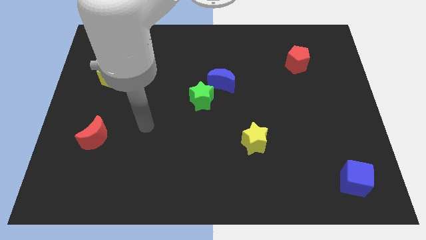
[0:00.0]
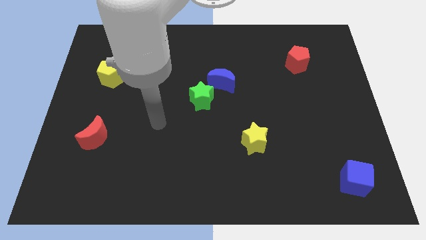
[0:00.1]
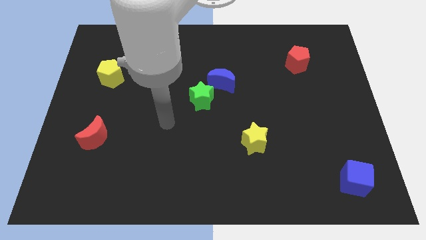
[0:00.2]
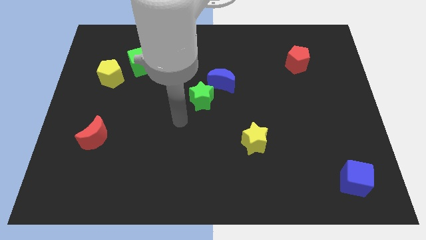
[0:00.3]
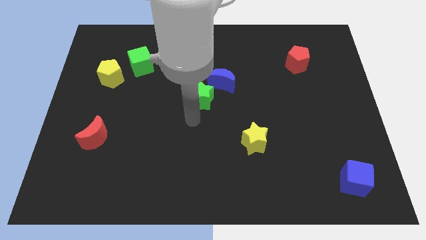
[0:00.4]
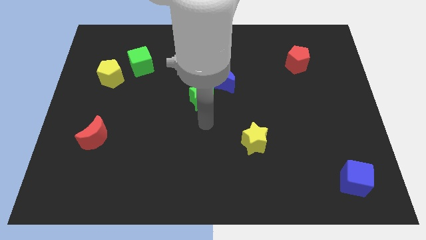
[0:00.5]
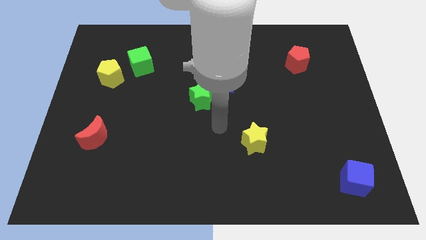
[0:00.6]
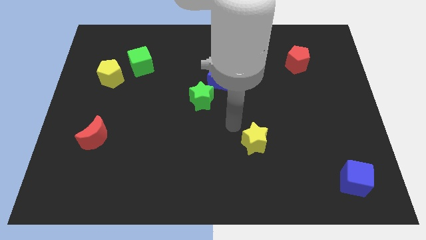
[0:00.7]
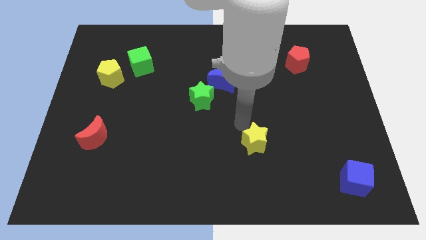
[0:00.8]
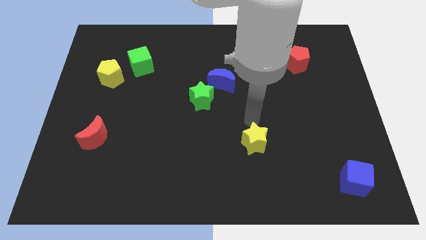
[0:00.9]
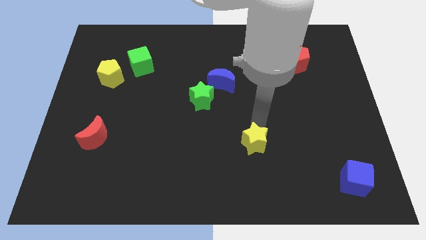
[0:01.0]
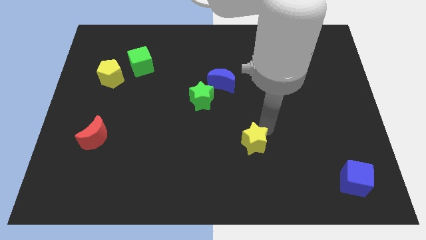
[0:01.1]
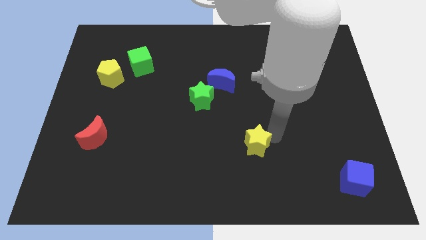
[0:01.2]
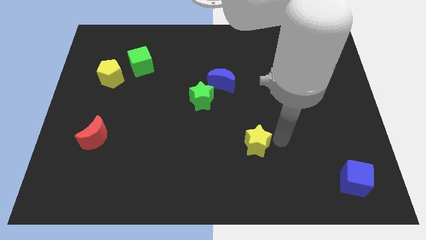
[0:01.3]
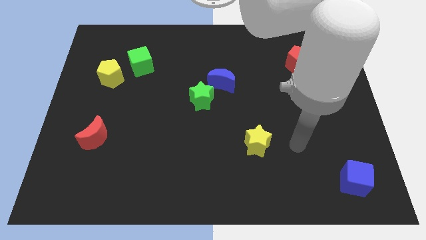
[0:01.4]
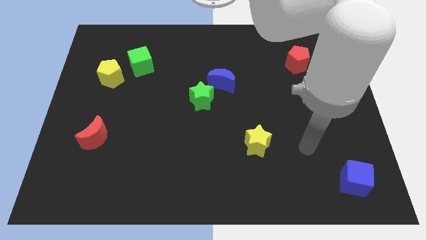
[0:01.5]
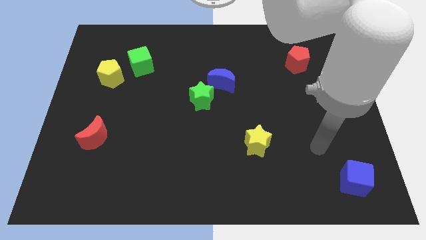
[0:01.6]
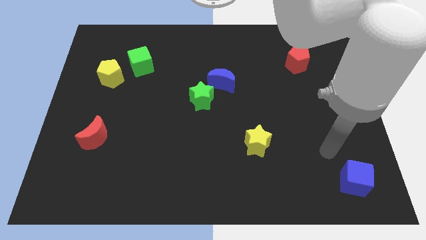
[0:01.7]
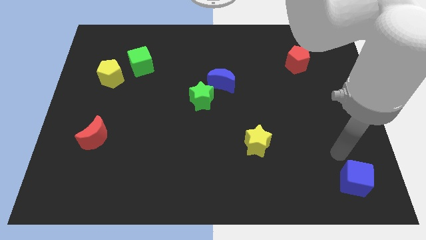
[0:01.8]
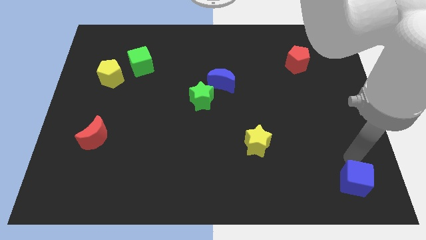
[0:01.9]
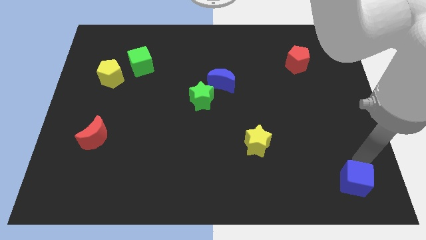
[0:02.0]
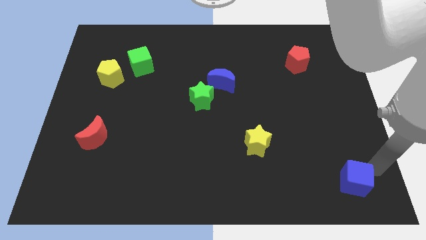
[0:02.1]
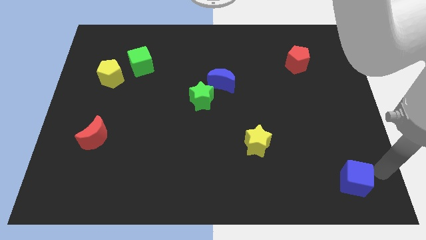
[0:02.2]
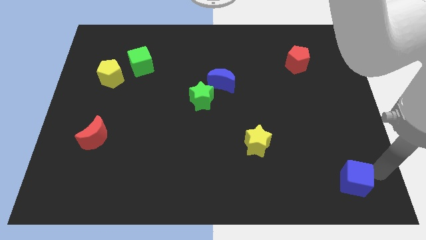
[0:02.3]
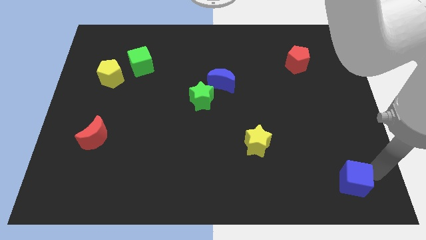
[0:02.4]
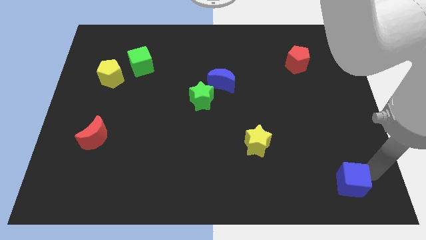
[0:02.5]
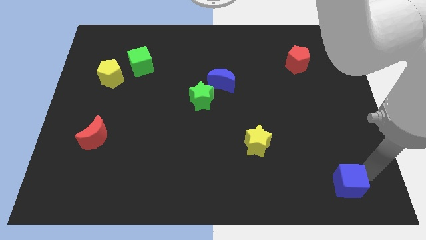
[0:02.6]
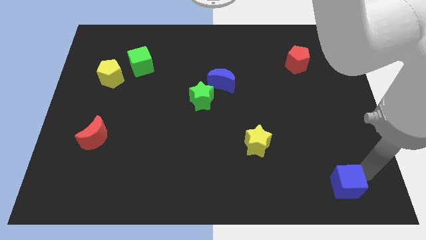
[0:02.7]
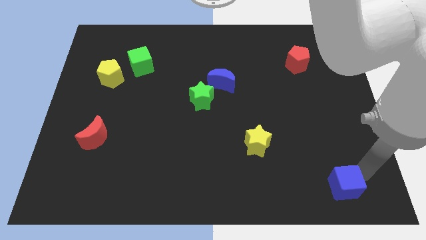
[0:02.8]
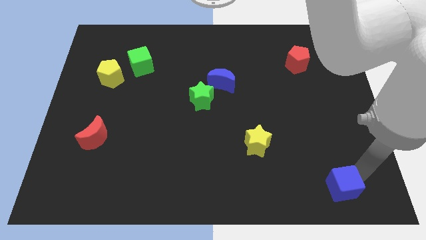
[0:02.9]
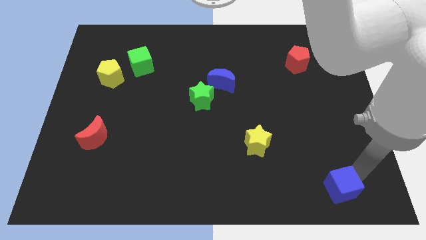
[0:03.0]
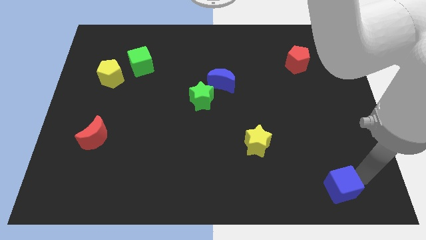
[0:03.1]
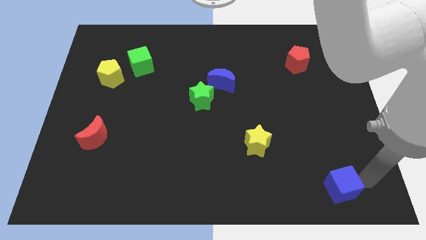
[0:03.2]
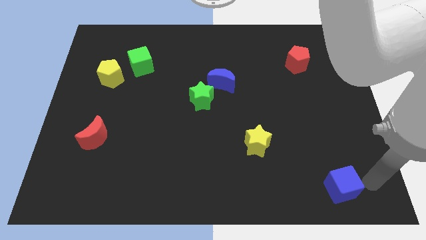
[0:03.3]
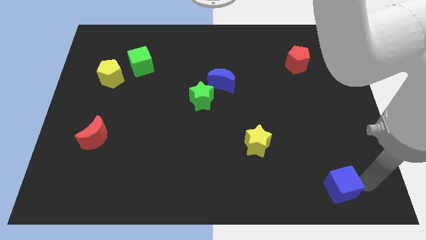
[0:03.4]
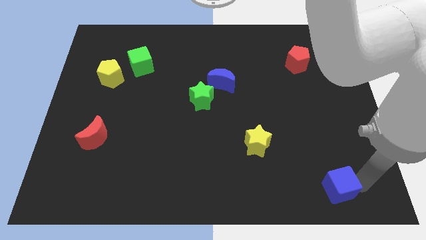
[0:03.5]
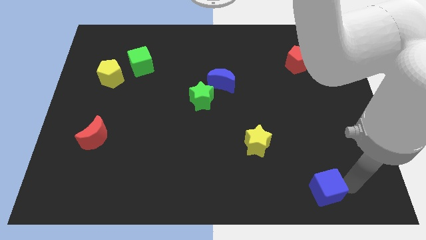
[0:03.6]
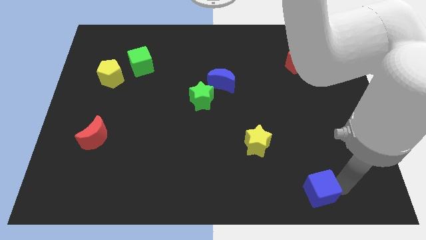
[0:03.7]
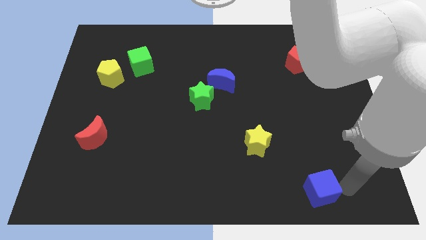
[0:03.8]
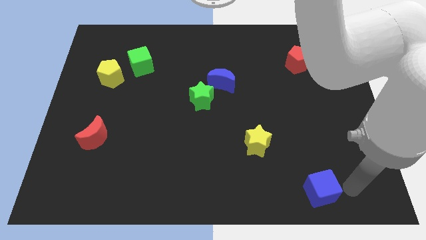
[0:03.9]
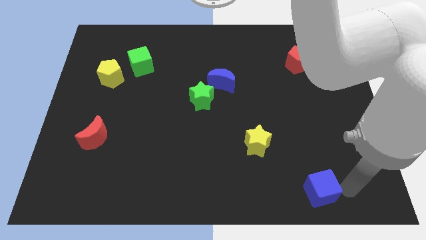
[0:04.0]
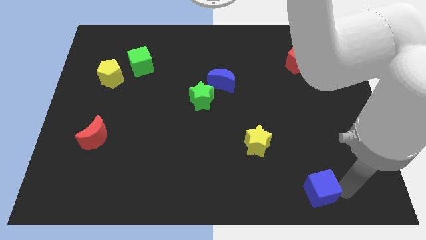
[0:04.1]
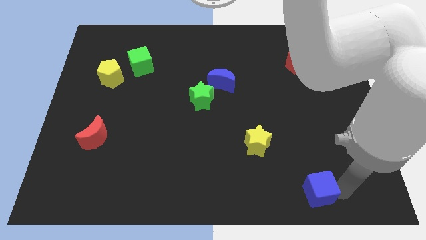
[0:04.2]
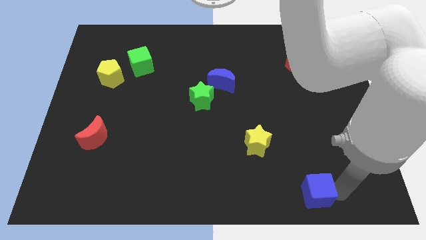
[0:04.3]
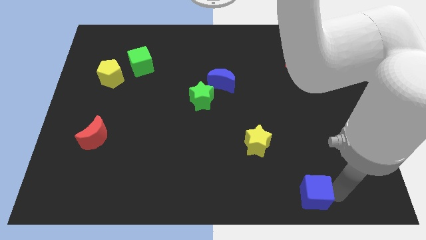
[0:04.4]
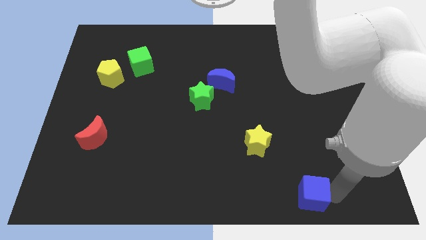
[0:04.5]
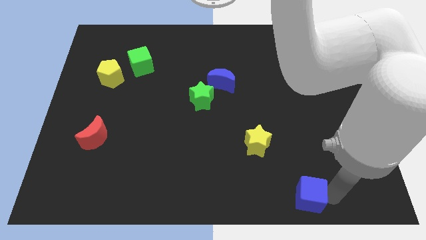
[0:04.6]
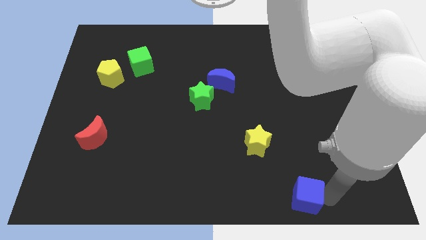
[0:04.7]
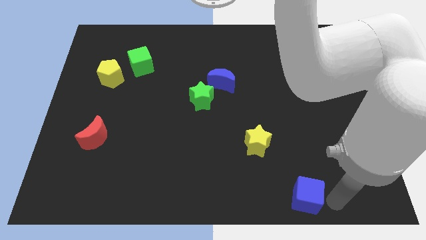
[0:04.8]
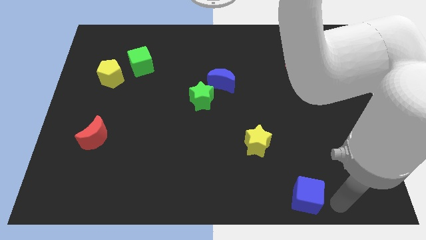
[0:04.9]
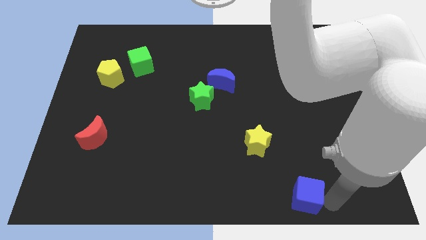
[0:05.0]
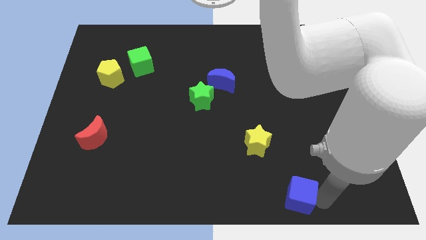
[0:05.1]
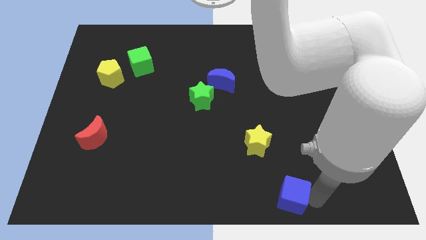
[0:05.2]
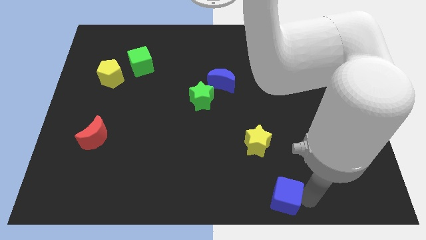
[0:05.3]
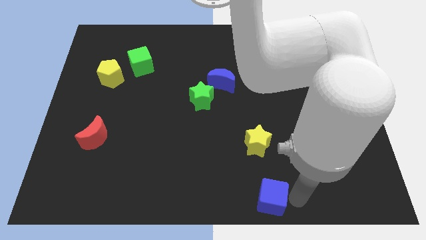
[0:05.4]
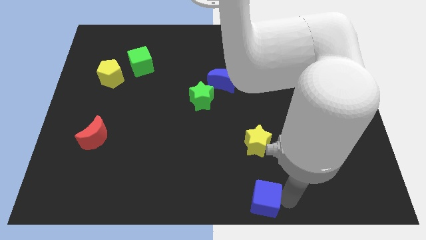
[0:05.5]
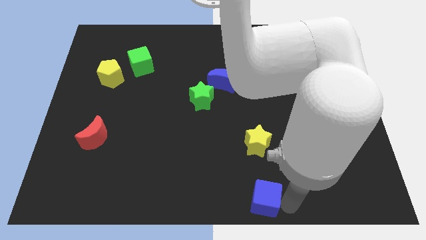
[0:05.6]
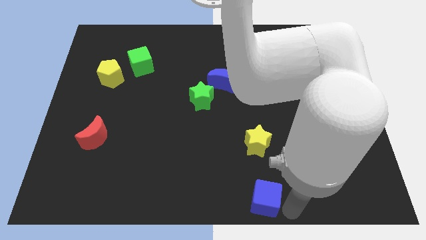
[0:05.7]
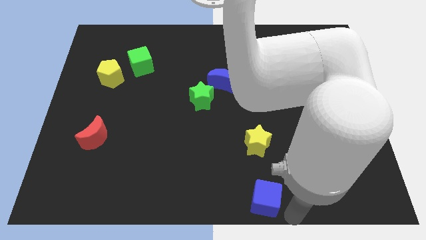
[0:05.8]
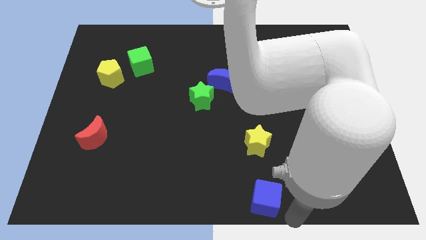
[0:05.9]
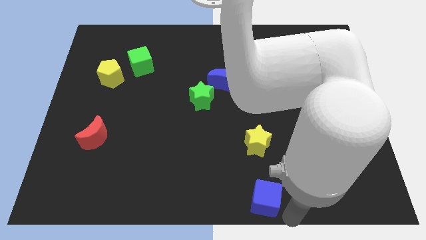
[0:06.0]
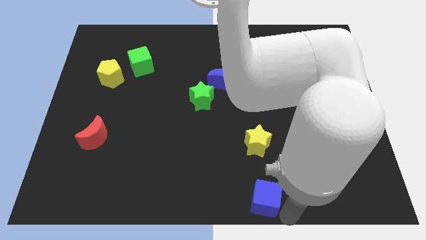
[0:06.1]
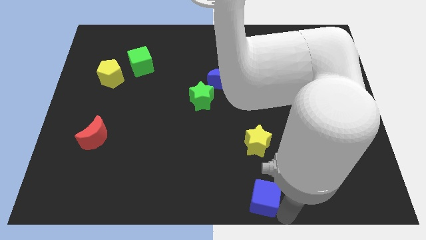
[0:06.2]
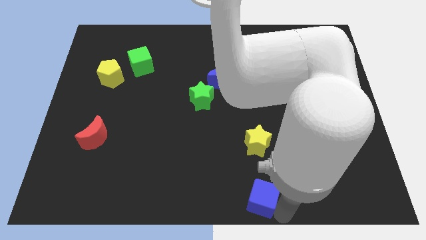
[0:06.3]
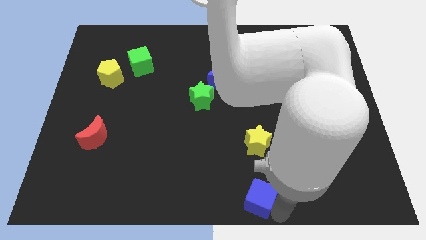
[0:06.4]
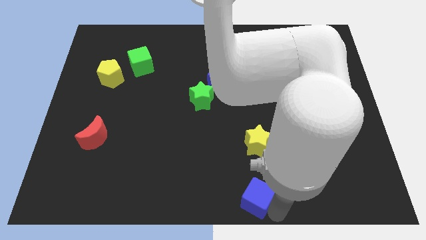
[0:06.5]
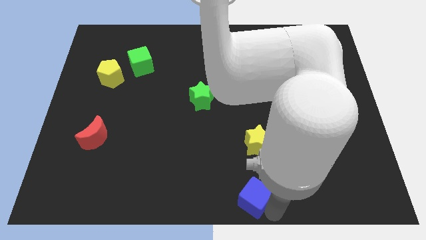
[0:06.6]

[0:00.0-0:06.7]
slide the blue cube left

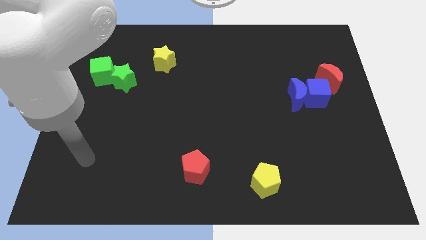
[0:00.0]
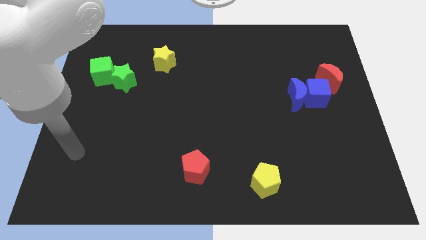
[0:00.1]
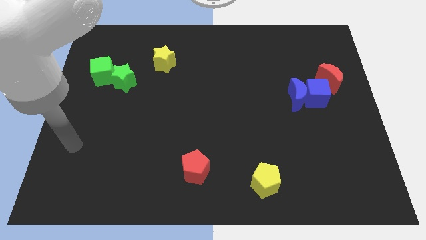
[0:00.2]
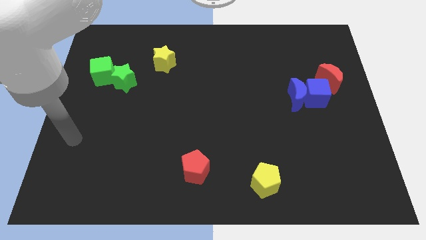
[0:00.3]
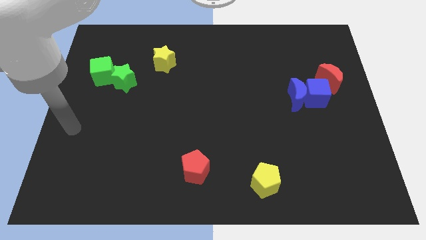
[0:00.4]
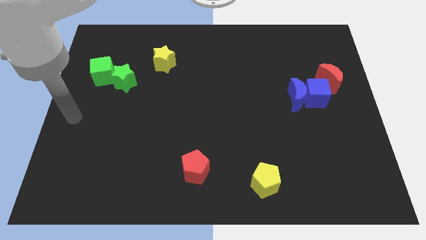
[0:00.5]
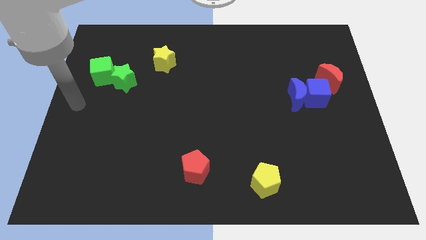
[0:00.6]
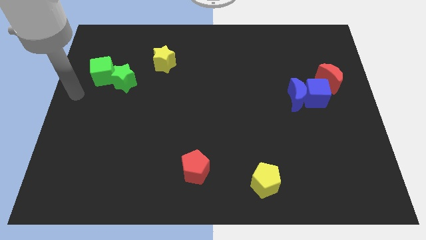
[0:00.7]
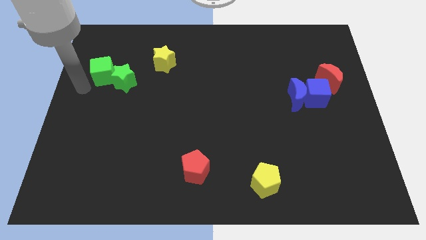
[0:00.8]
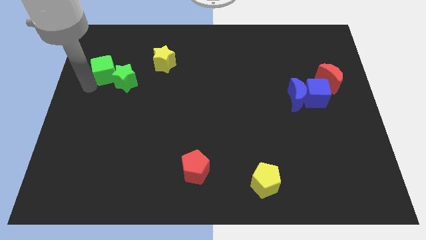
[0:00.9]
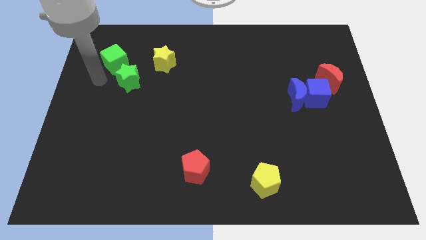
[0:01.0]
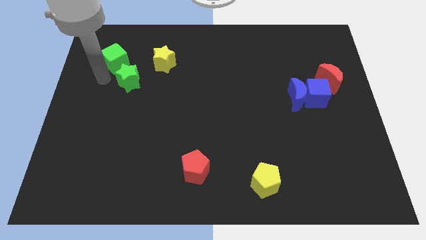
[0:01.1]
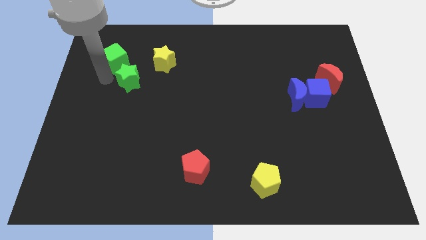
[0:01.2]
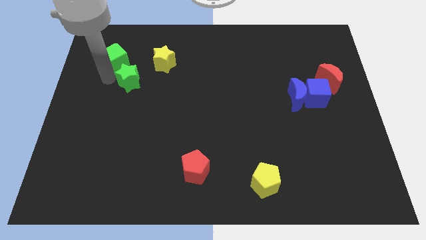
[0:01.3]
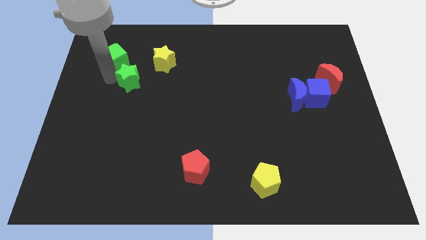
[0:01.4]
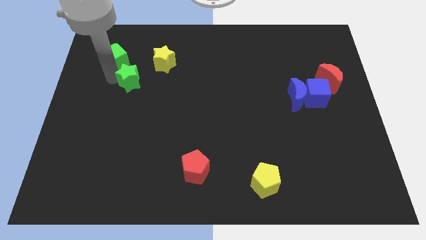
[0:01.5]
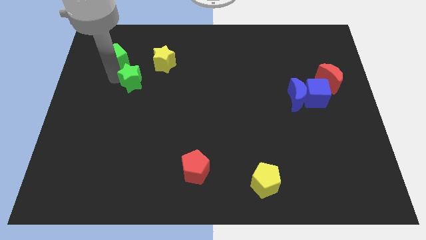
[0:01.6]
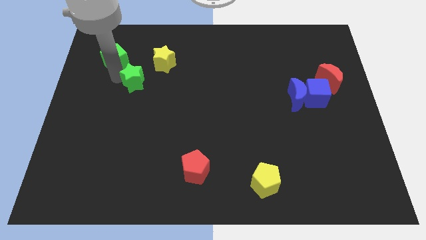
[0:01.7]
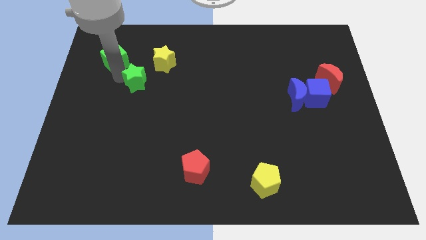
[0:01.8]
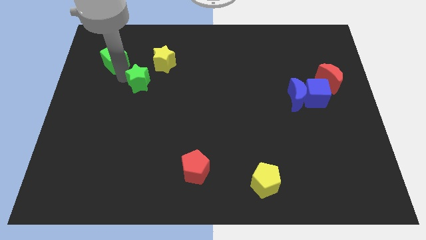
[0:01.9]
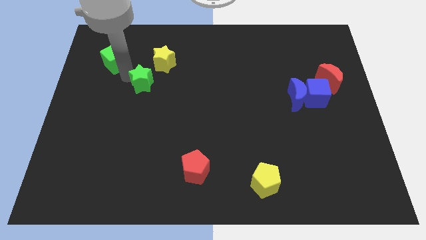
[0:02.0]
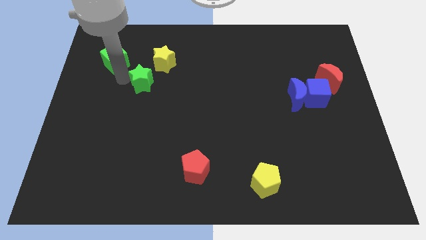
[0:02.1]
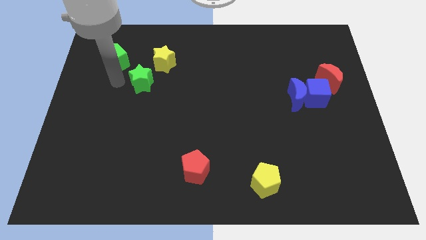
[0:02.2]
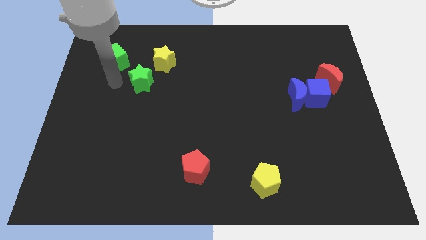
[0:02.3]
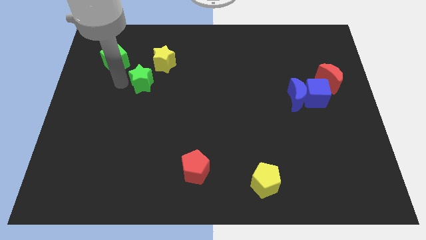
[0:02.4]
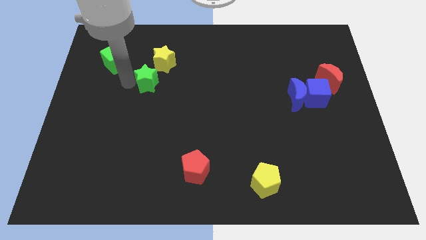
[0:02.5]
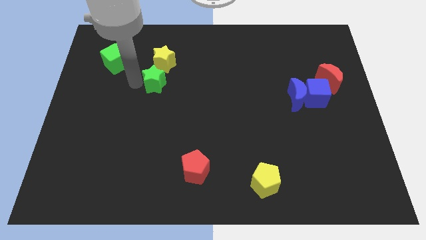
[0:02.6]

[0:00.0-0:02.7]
move the green star a little to the right
